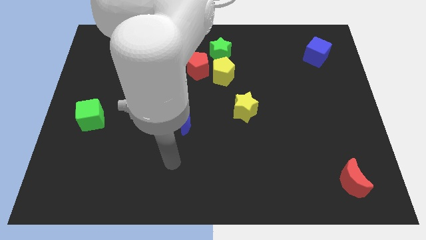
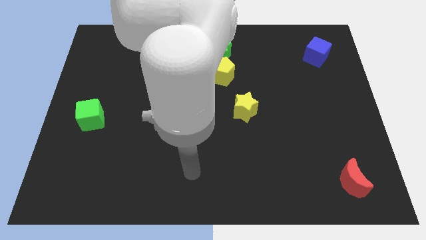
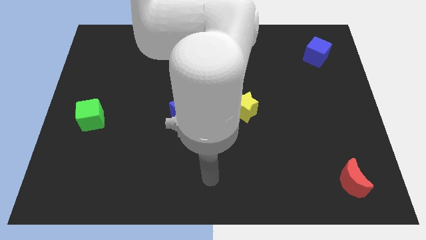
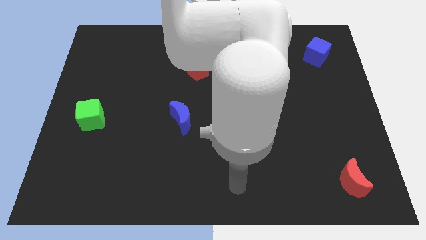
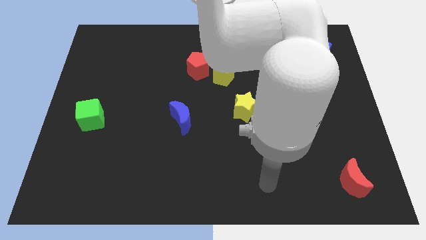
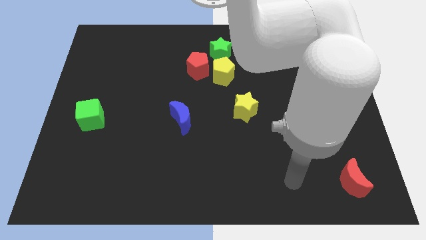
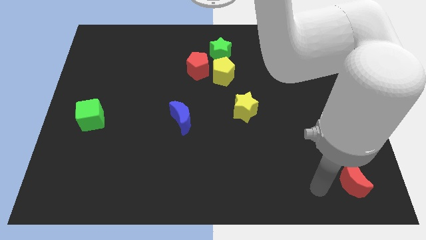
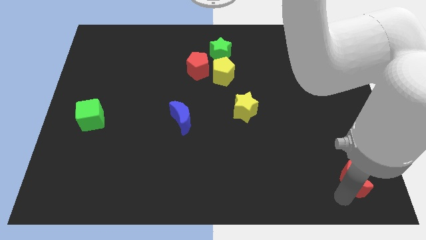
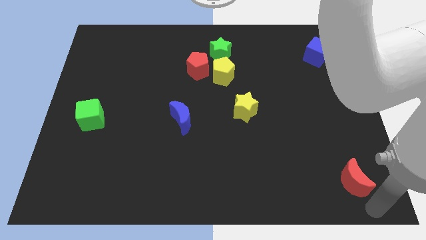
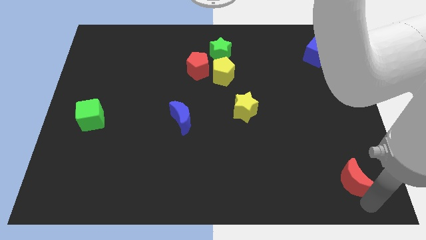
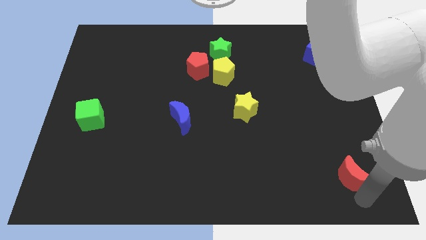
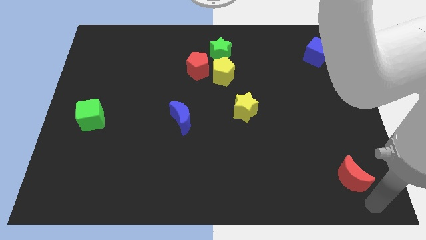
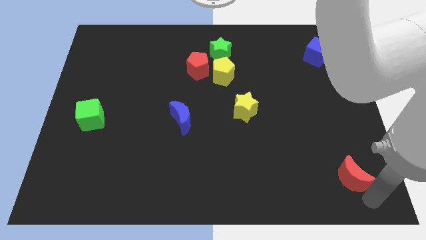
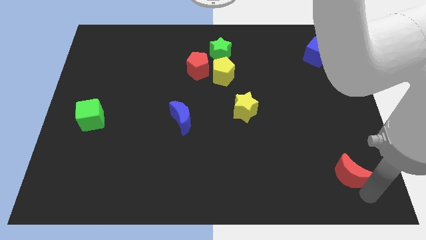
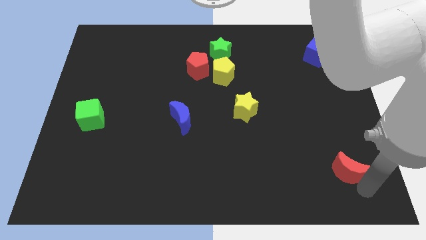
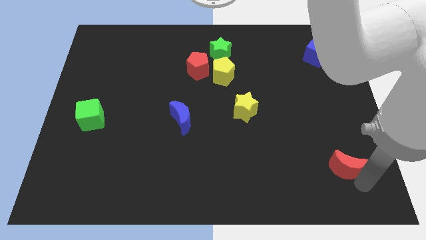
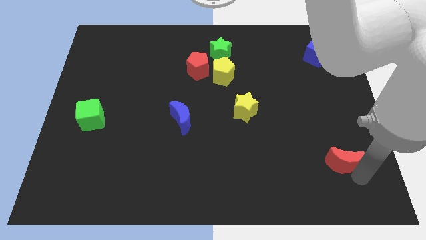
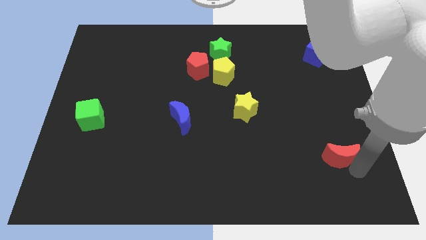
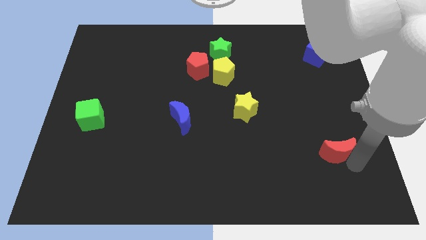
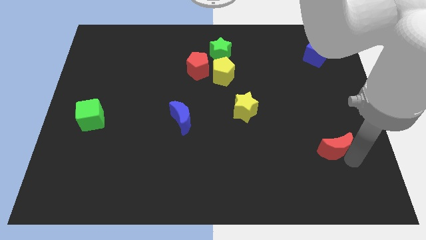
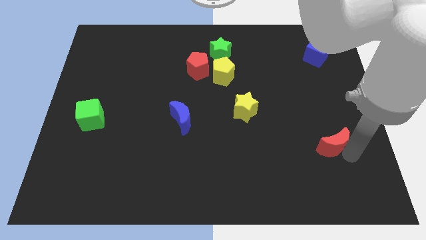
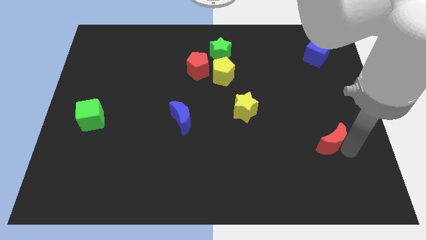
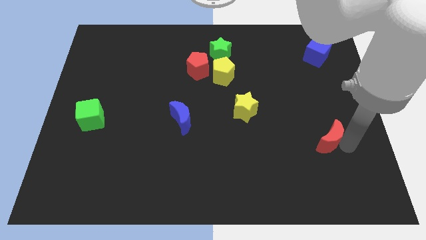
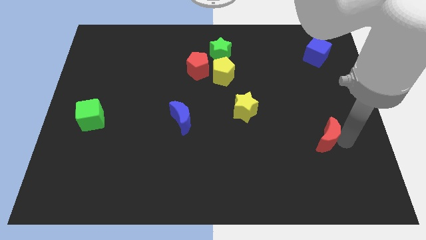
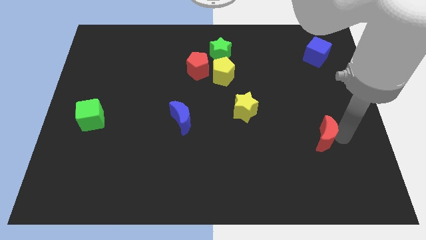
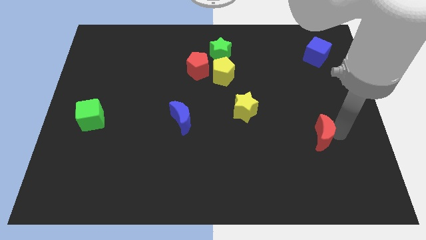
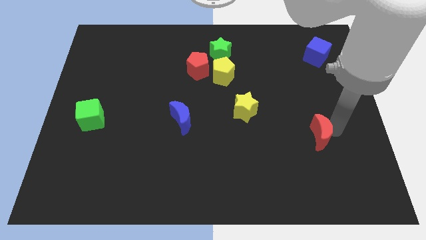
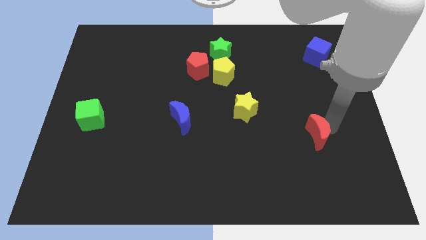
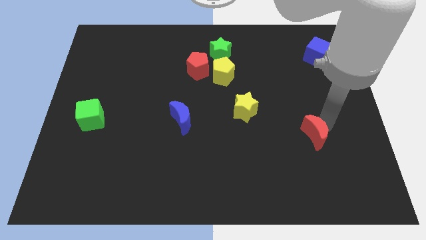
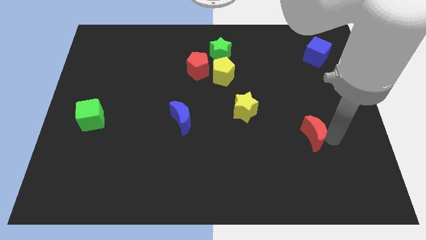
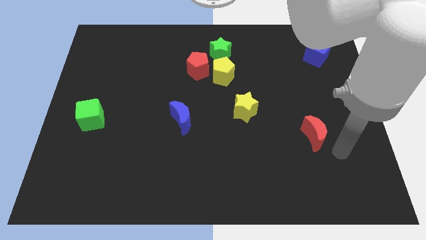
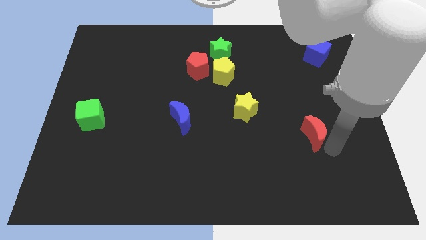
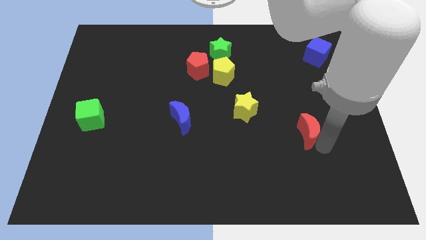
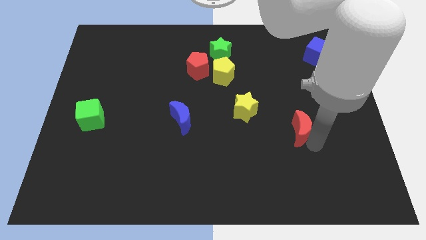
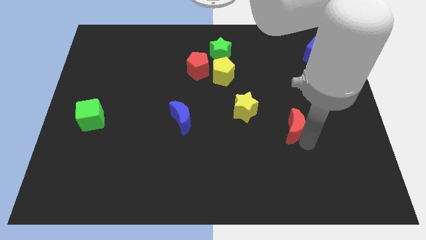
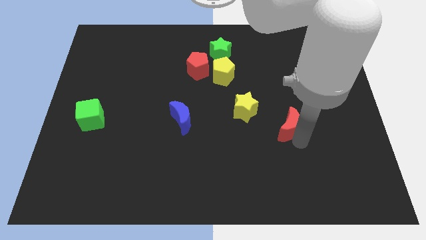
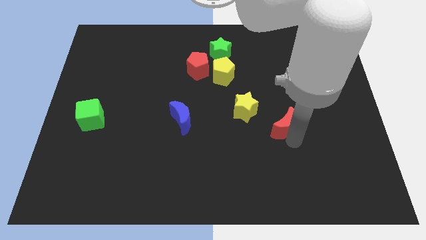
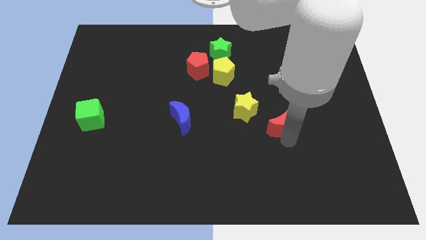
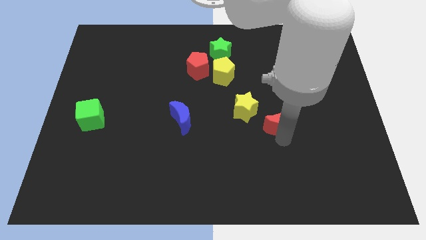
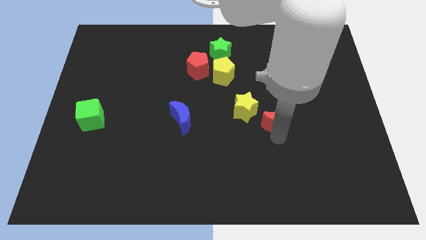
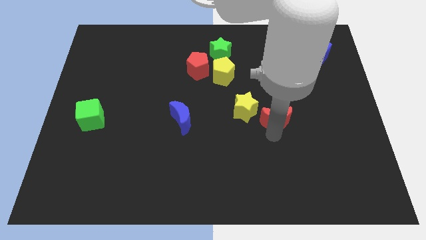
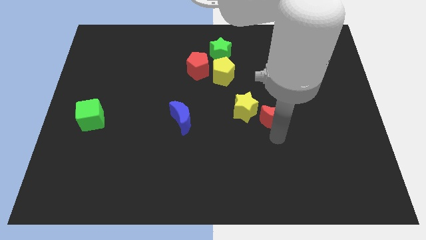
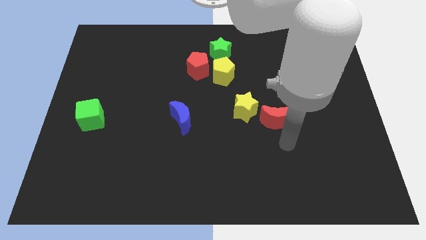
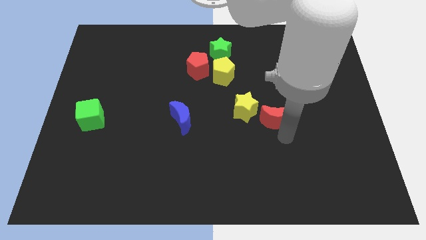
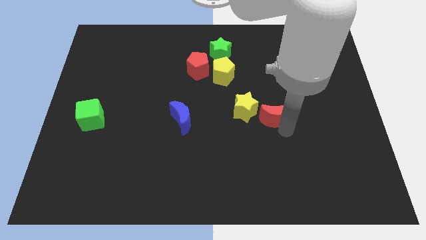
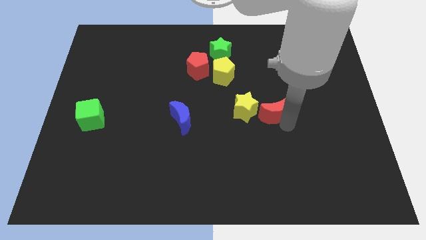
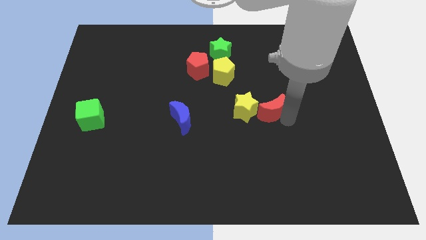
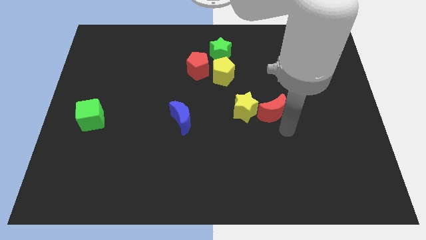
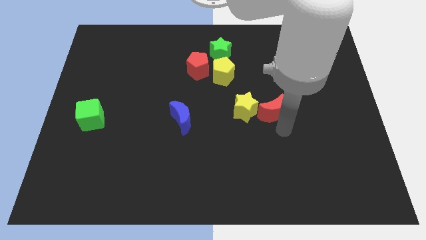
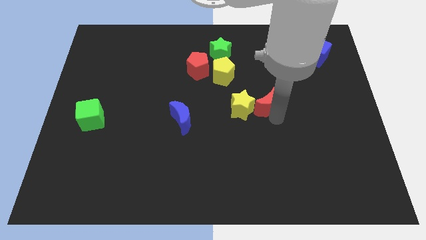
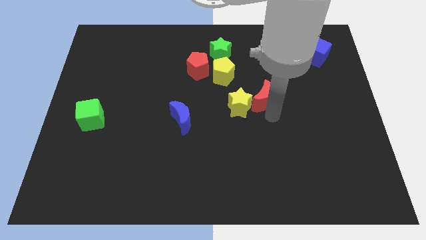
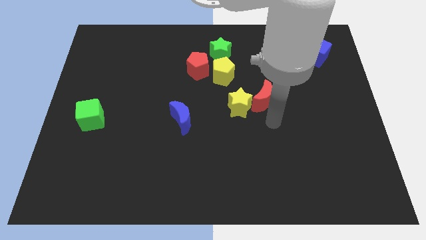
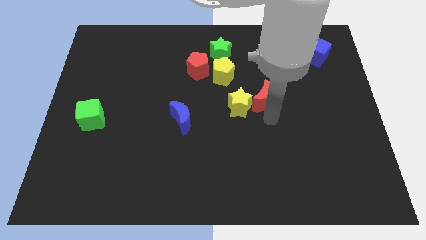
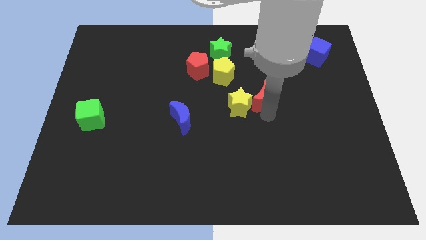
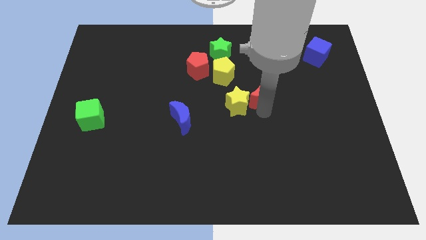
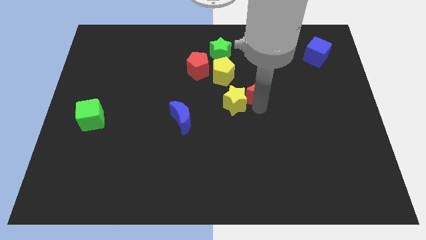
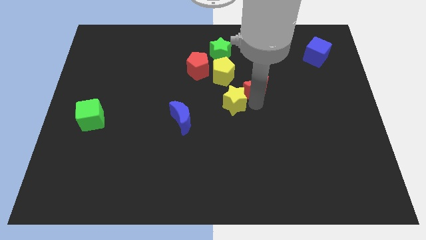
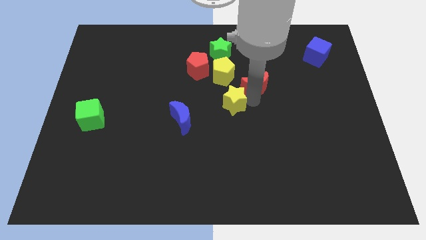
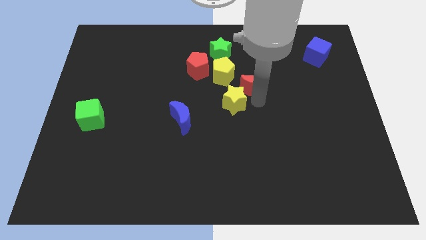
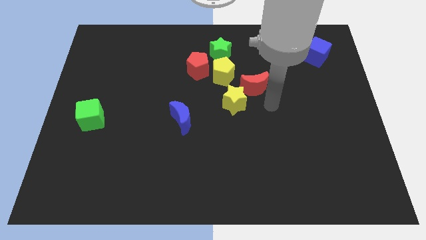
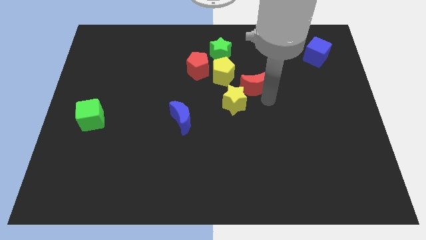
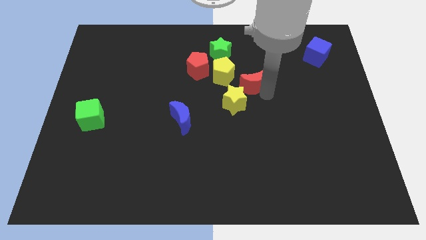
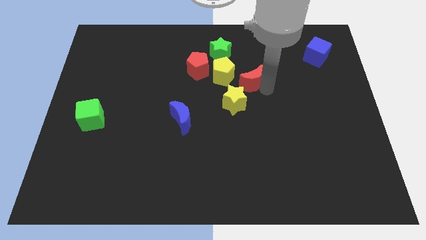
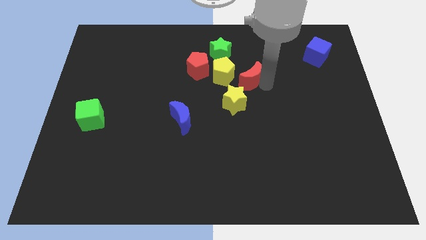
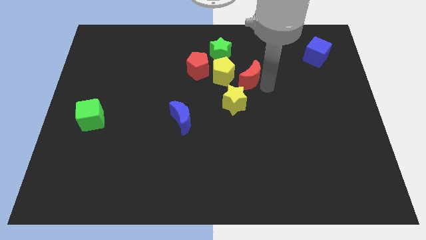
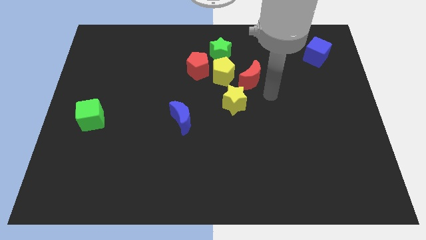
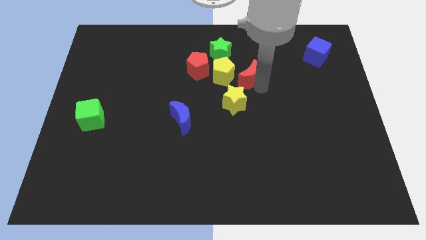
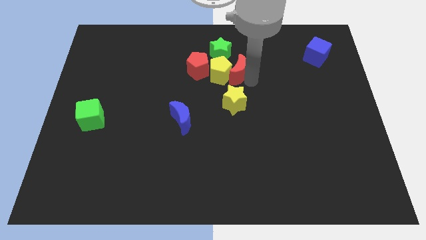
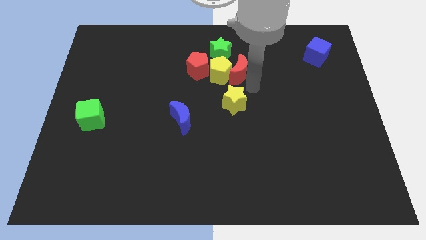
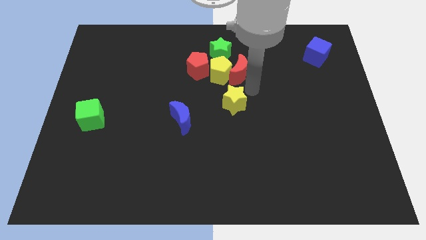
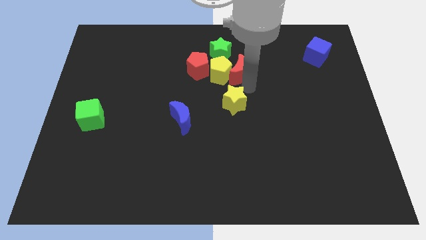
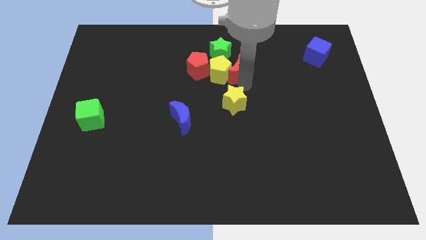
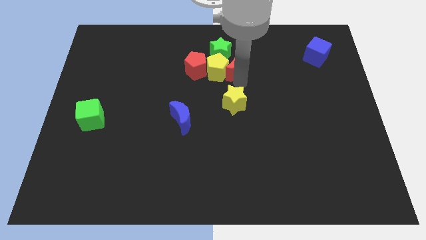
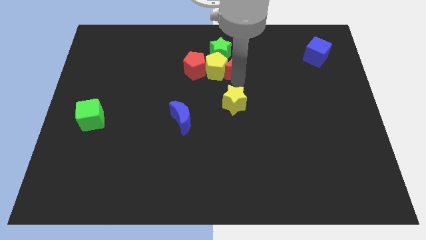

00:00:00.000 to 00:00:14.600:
put the red moon towards the green star
